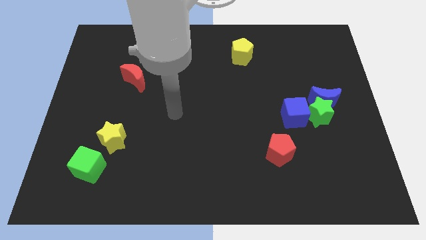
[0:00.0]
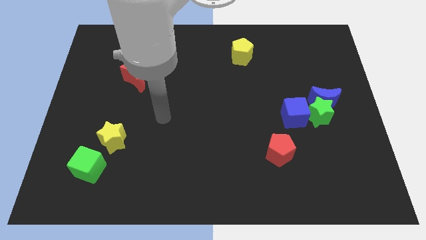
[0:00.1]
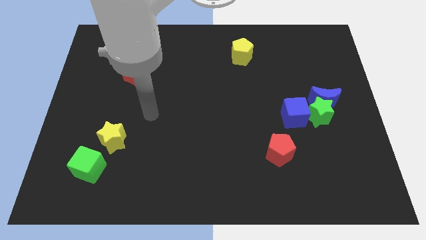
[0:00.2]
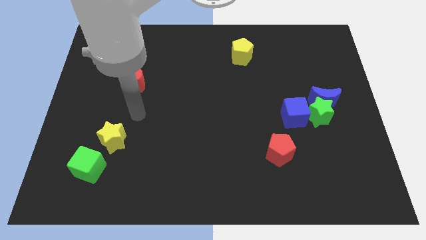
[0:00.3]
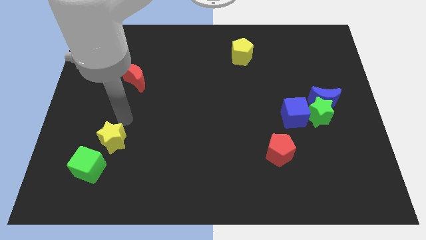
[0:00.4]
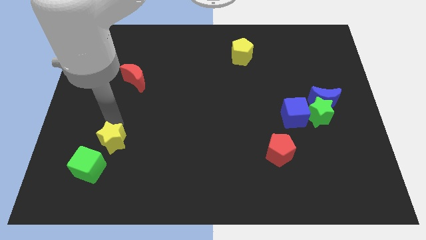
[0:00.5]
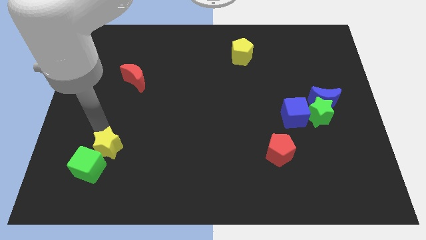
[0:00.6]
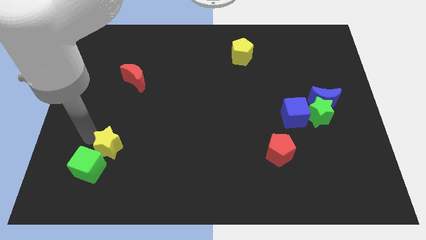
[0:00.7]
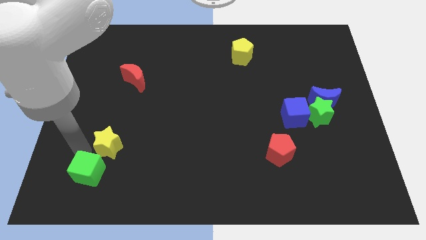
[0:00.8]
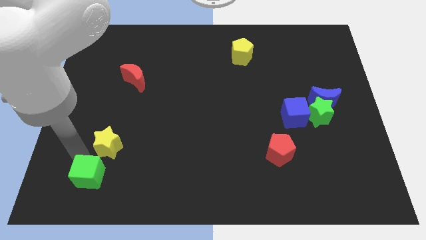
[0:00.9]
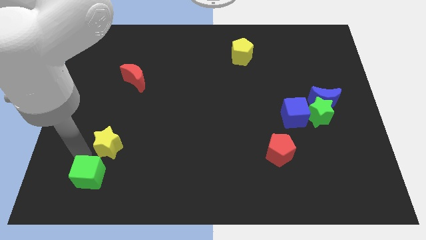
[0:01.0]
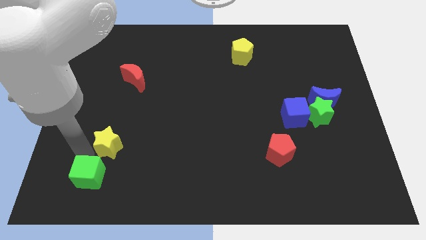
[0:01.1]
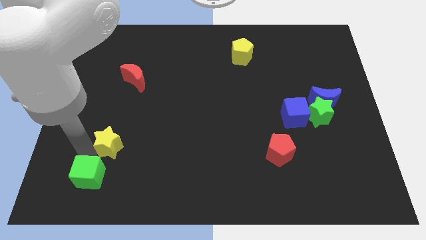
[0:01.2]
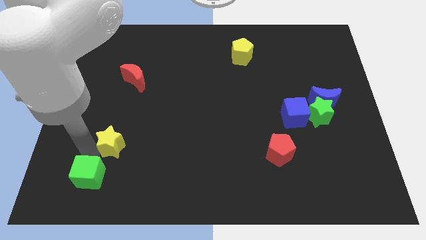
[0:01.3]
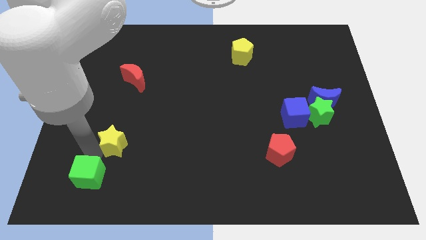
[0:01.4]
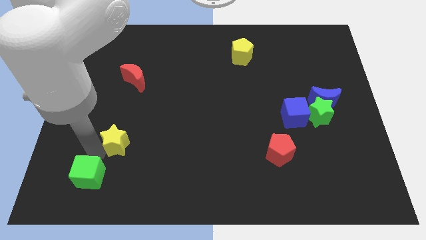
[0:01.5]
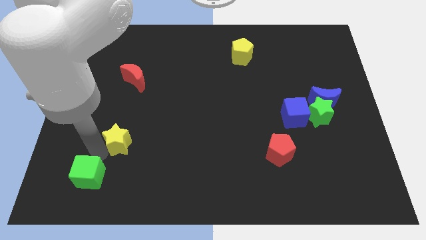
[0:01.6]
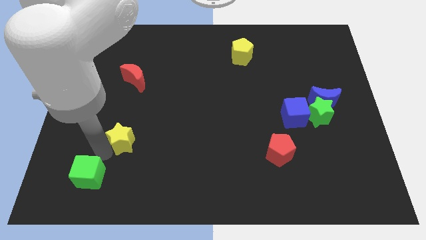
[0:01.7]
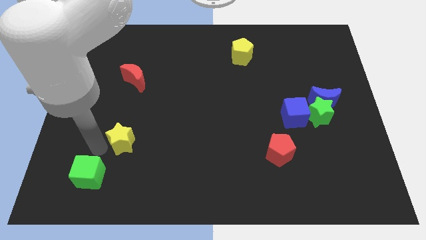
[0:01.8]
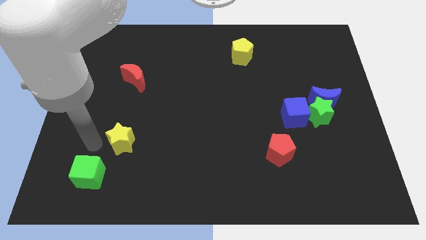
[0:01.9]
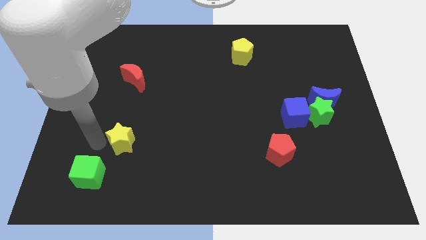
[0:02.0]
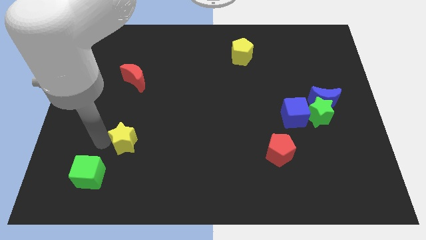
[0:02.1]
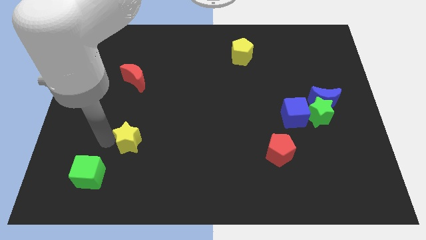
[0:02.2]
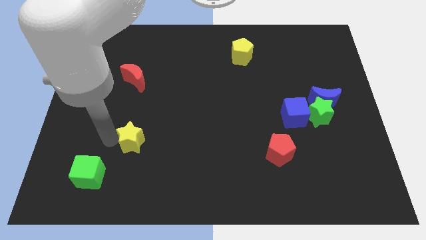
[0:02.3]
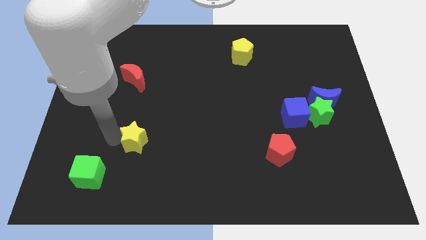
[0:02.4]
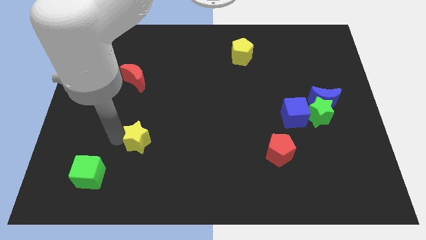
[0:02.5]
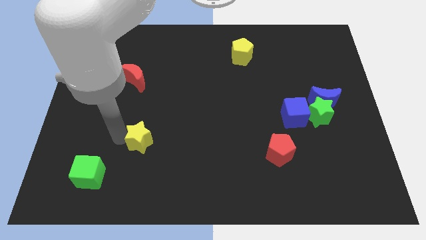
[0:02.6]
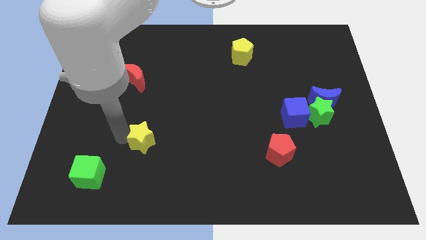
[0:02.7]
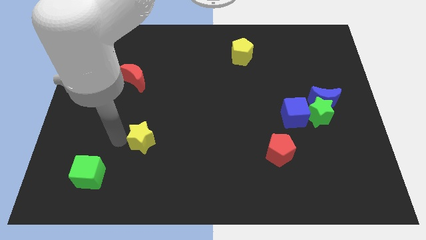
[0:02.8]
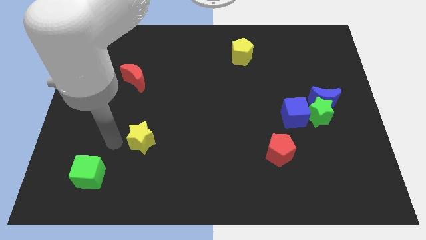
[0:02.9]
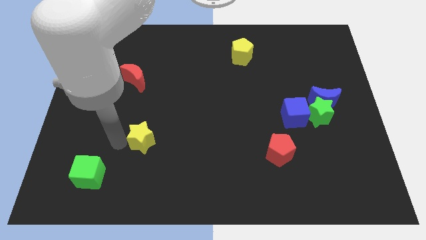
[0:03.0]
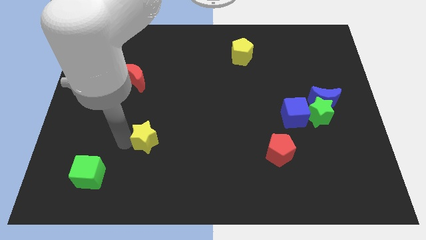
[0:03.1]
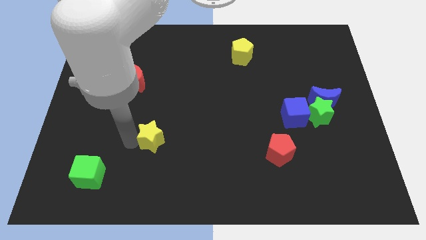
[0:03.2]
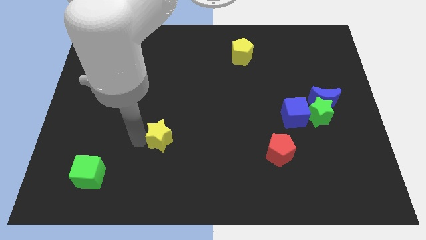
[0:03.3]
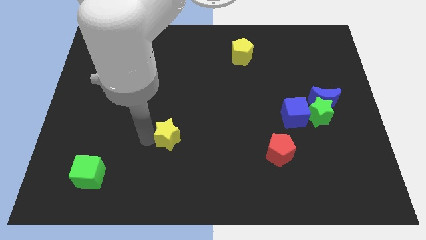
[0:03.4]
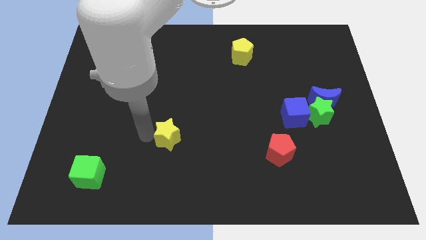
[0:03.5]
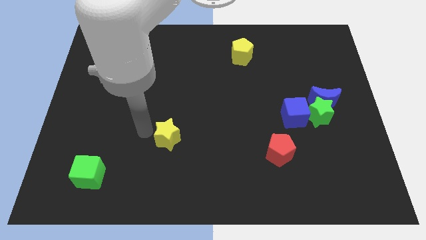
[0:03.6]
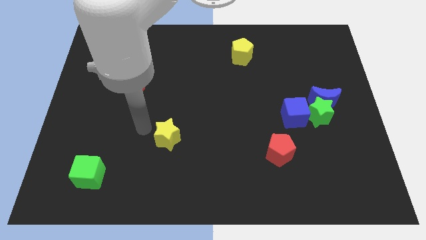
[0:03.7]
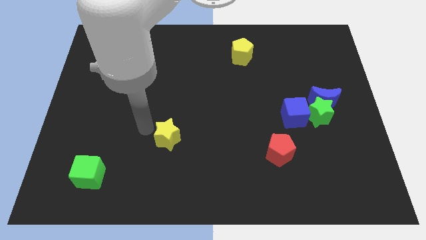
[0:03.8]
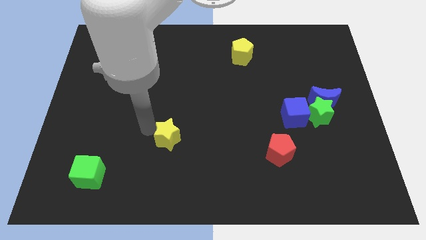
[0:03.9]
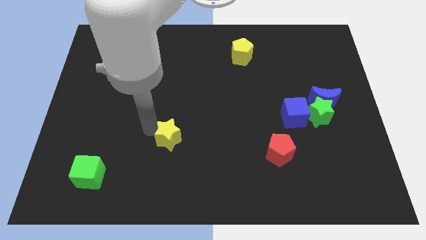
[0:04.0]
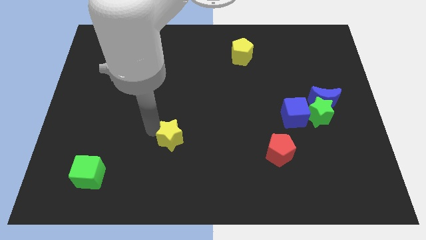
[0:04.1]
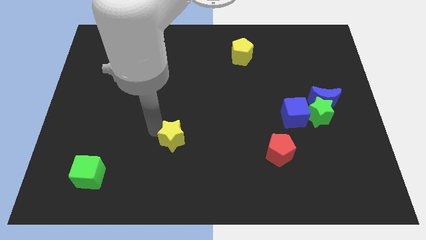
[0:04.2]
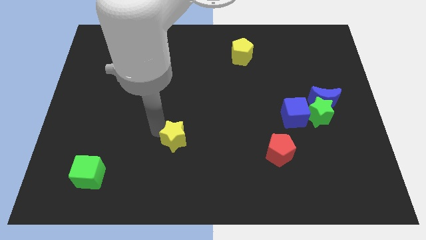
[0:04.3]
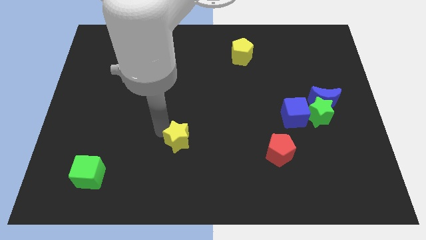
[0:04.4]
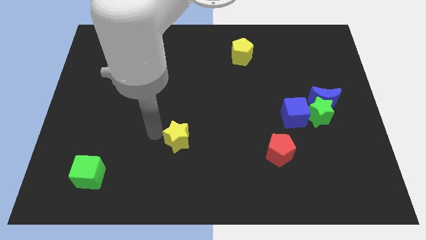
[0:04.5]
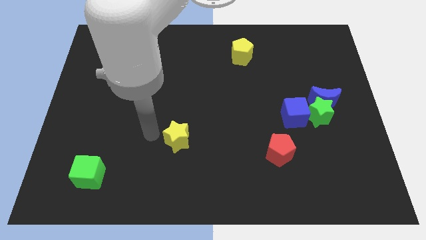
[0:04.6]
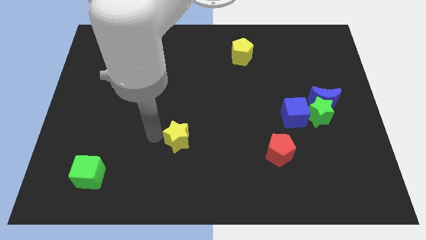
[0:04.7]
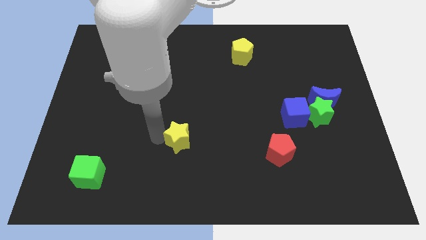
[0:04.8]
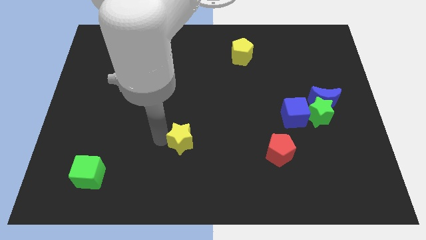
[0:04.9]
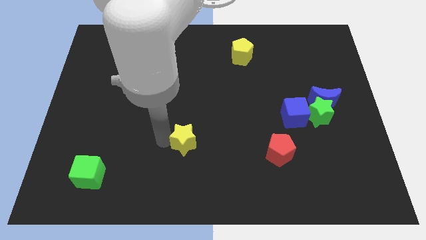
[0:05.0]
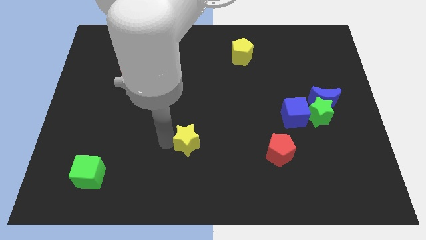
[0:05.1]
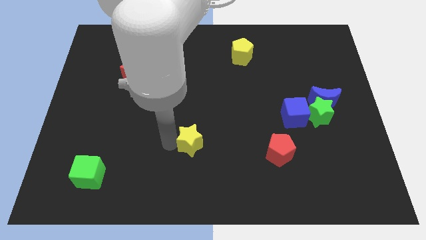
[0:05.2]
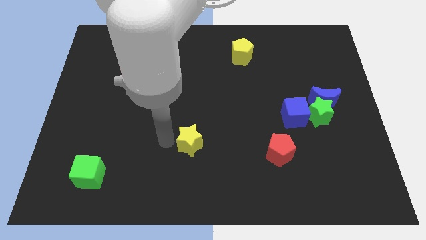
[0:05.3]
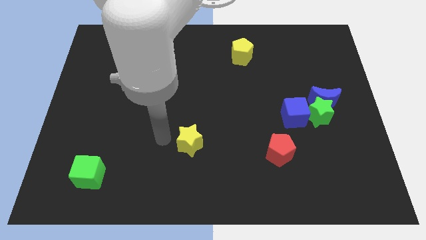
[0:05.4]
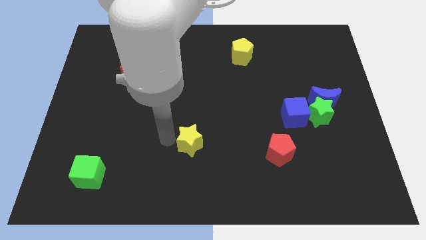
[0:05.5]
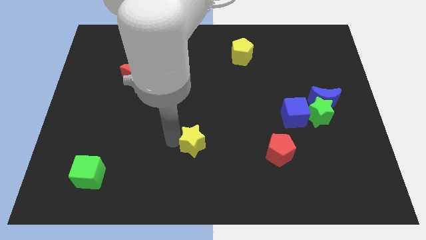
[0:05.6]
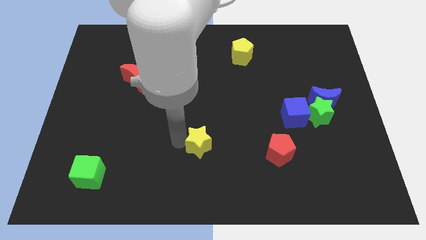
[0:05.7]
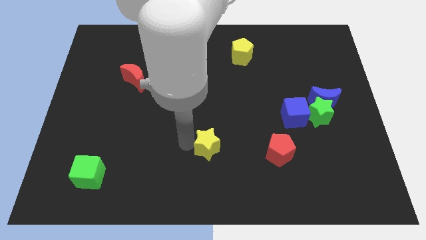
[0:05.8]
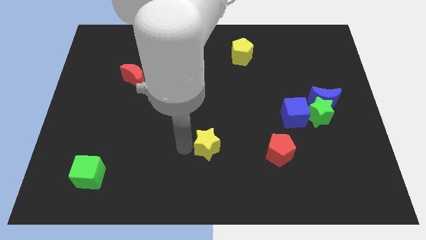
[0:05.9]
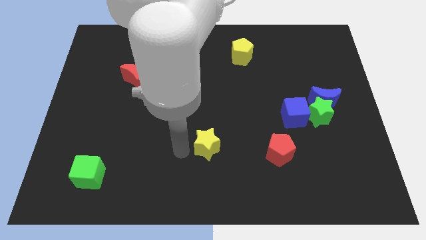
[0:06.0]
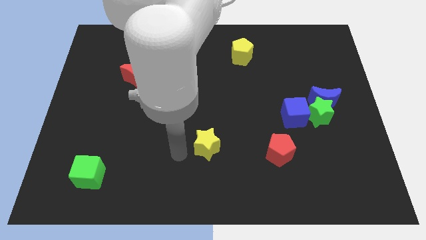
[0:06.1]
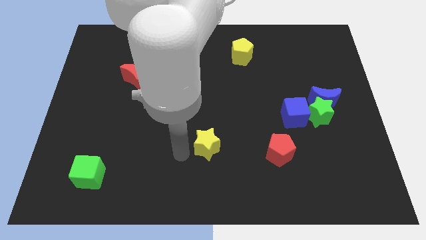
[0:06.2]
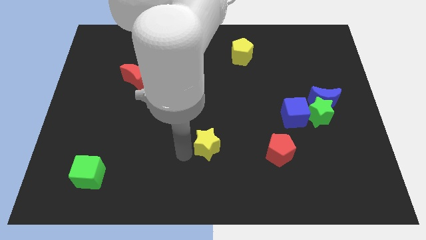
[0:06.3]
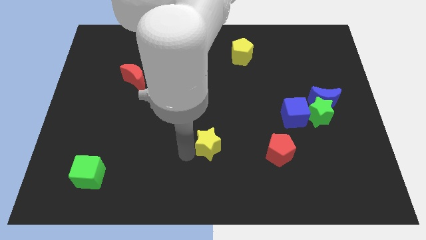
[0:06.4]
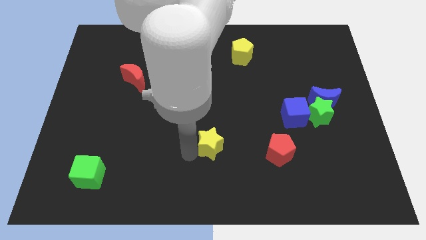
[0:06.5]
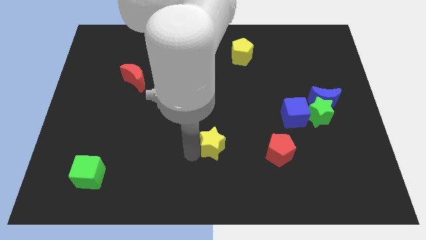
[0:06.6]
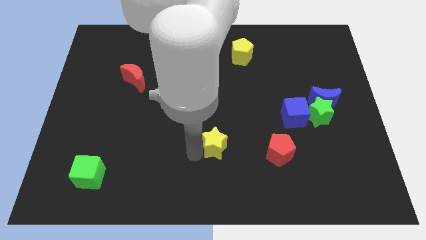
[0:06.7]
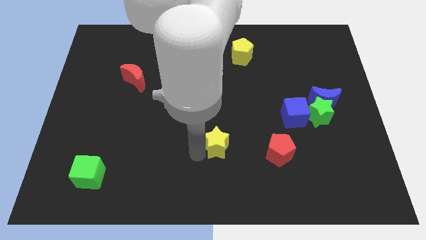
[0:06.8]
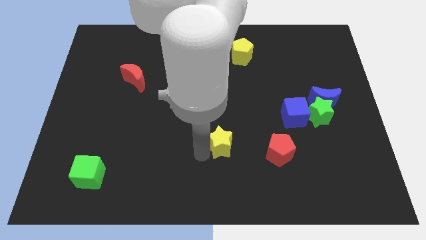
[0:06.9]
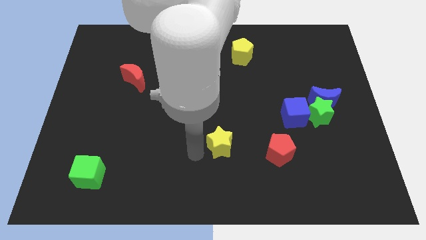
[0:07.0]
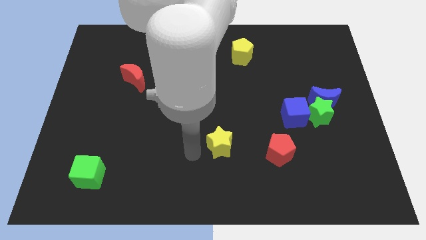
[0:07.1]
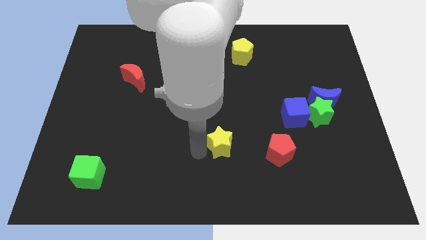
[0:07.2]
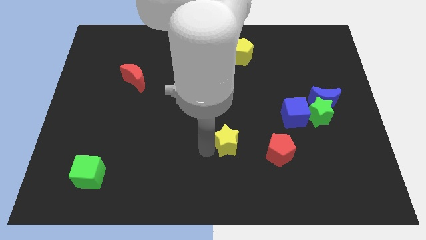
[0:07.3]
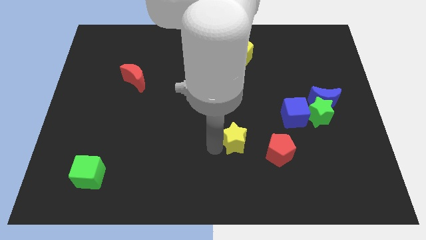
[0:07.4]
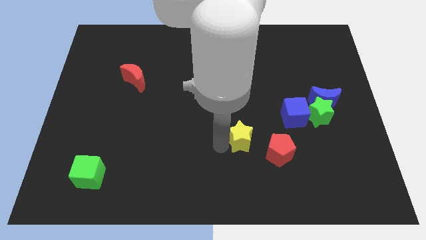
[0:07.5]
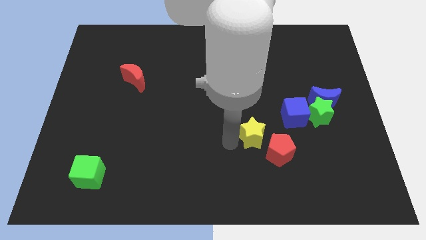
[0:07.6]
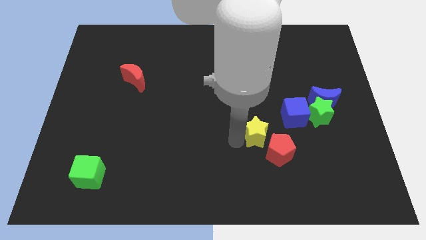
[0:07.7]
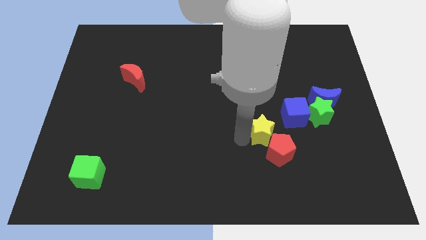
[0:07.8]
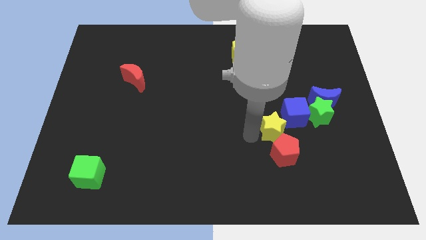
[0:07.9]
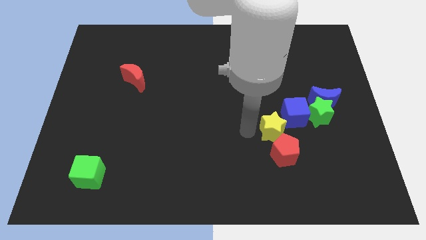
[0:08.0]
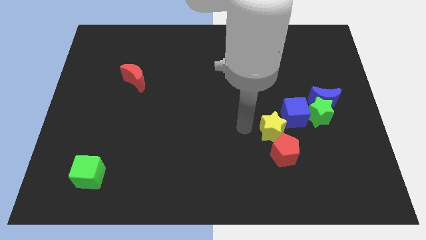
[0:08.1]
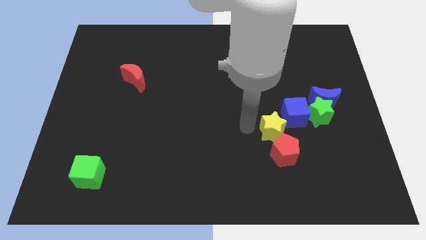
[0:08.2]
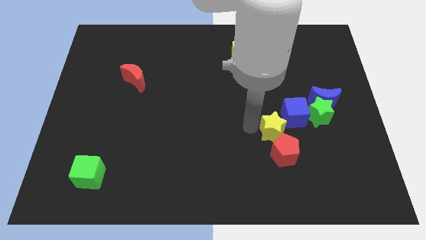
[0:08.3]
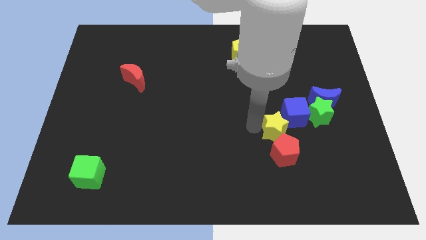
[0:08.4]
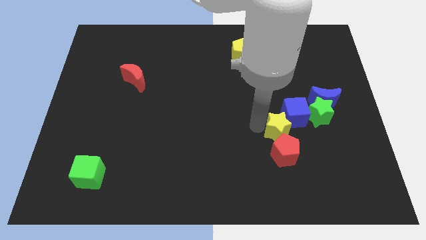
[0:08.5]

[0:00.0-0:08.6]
move the yellow star diagonally down and to the left of the green star
